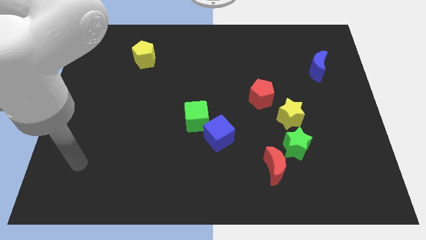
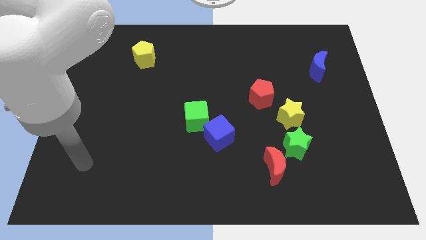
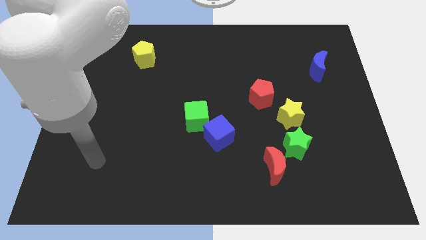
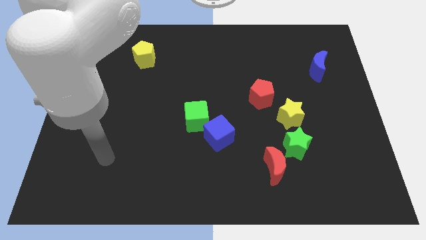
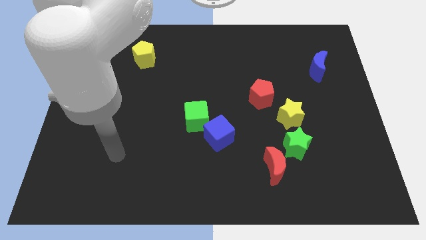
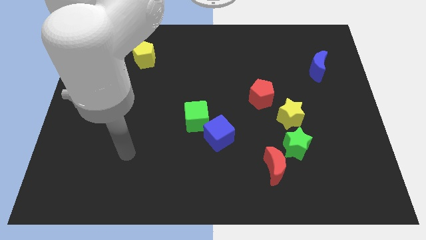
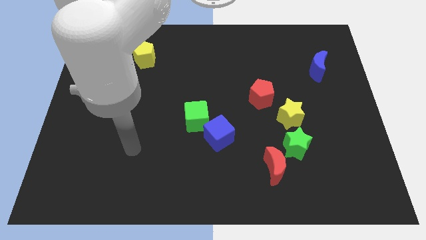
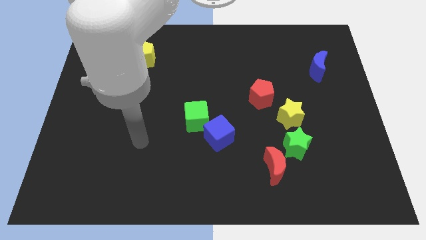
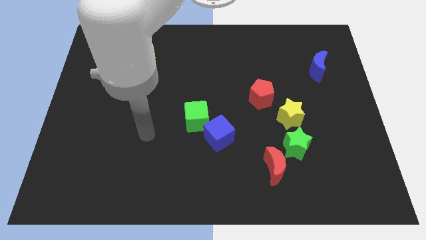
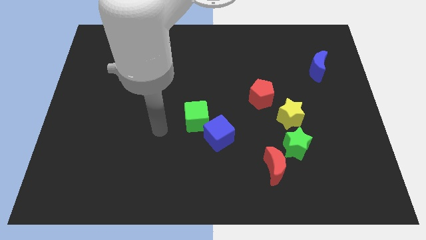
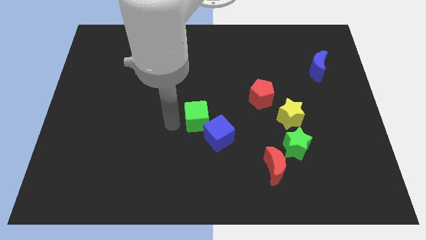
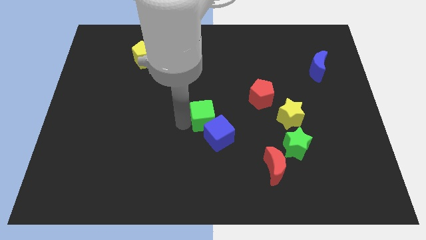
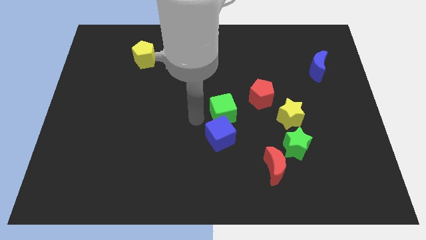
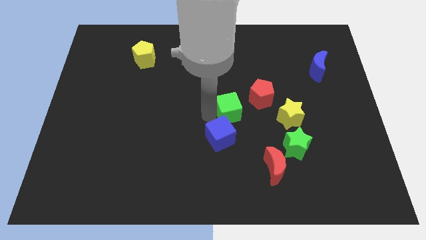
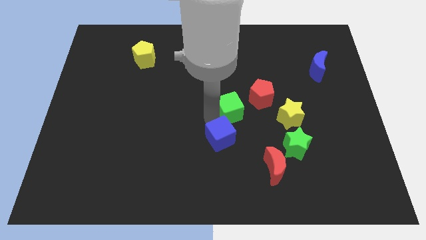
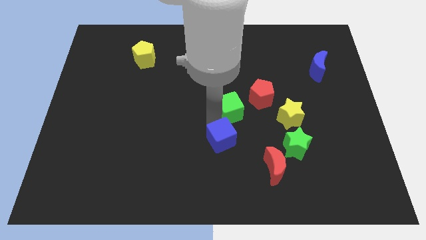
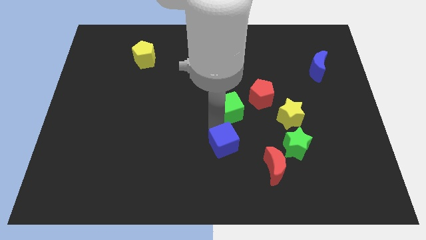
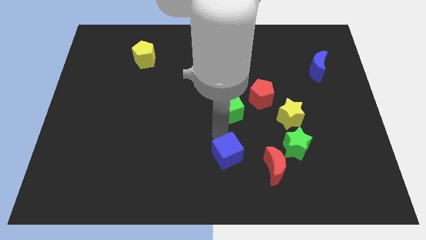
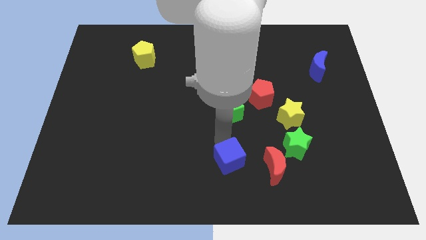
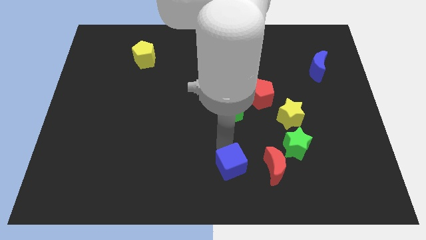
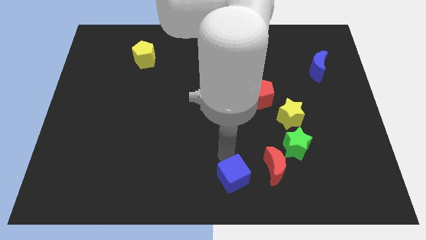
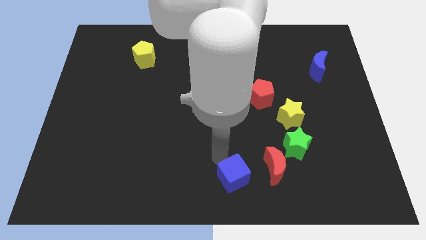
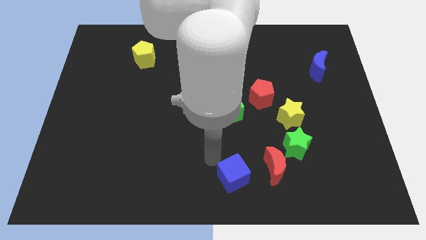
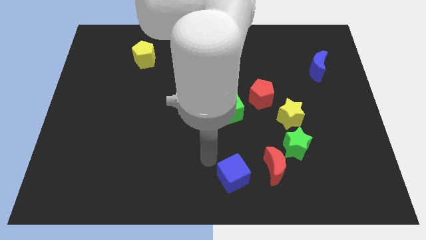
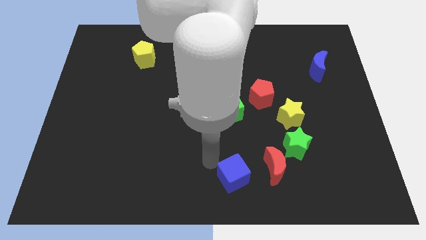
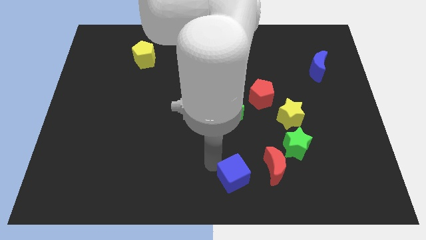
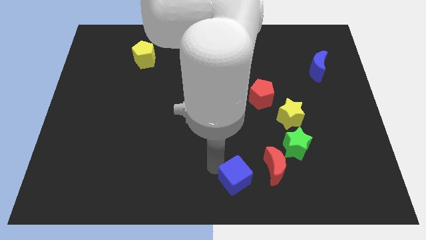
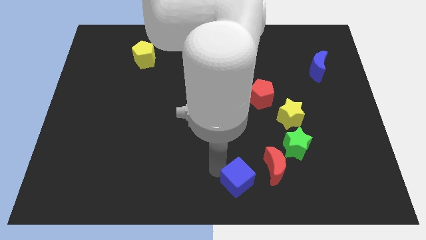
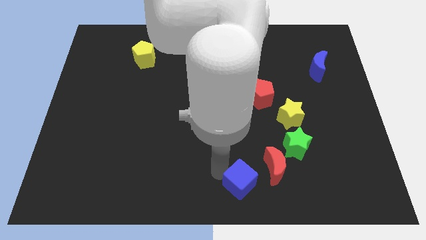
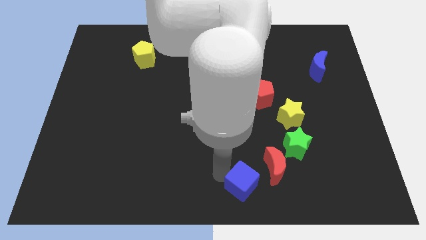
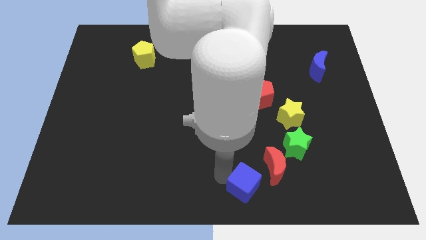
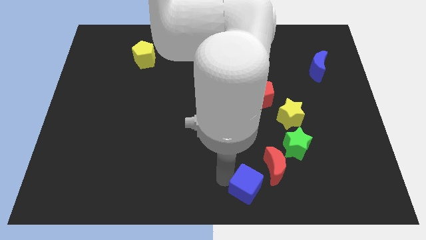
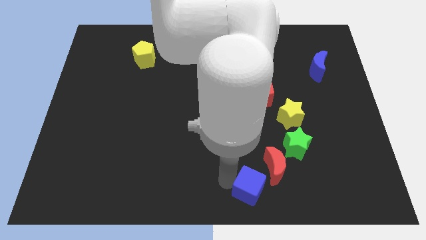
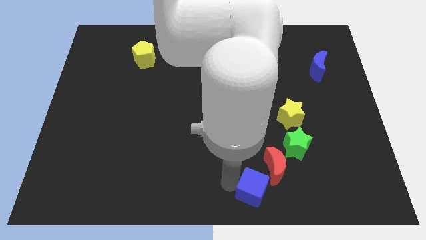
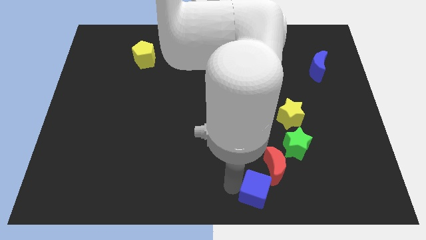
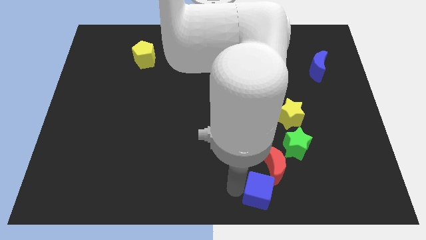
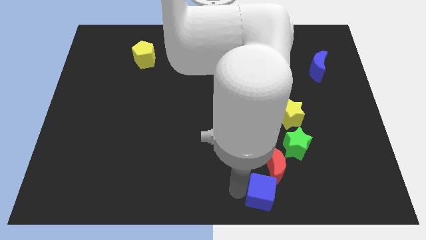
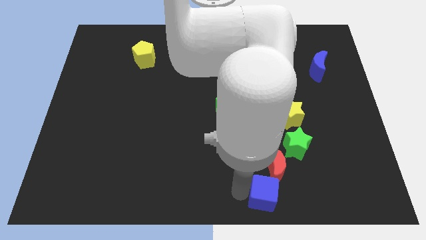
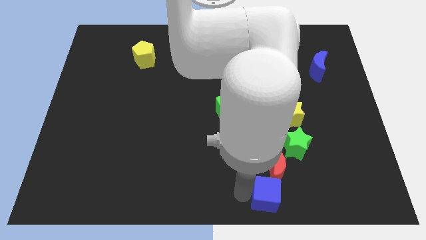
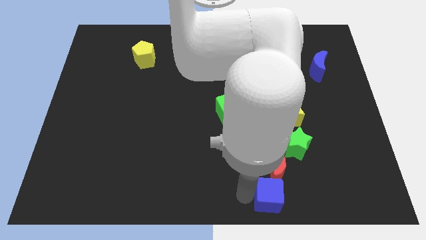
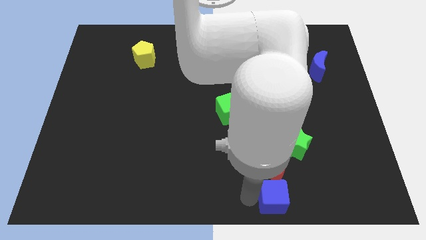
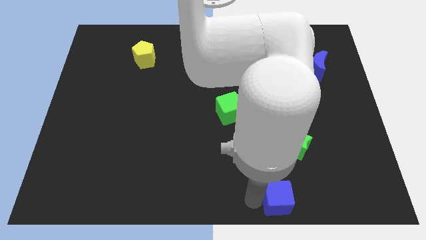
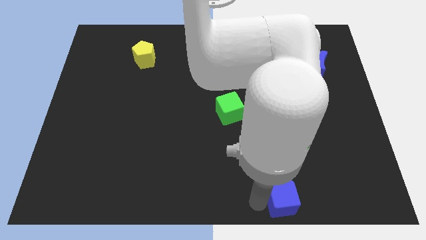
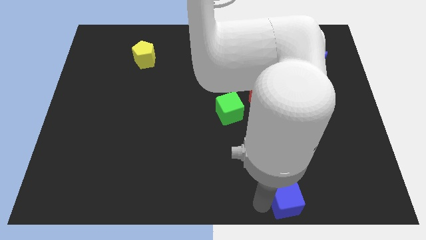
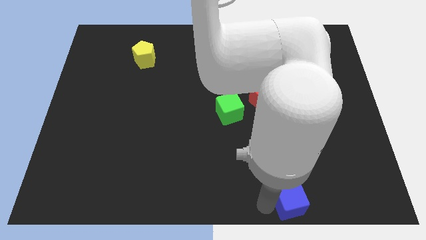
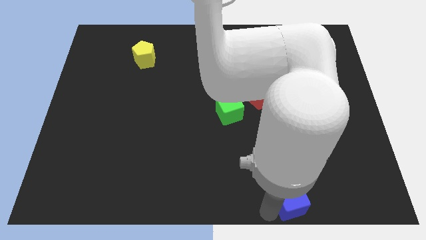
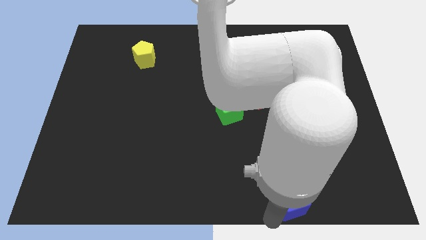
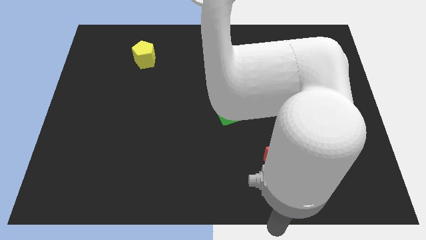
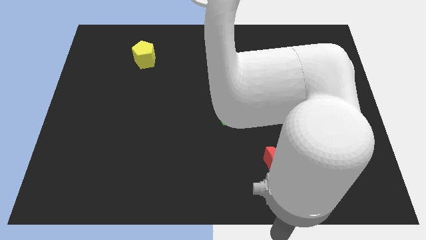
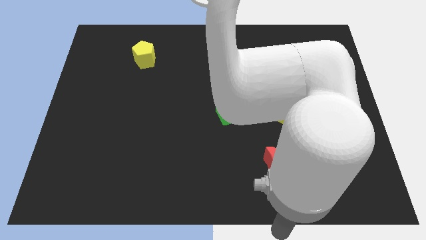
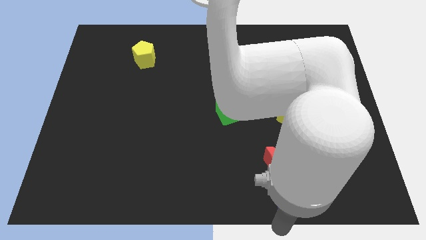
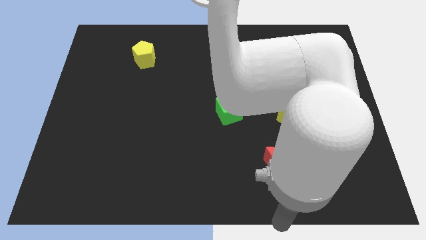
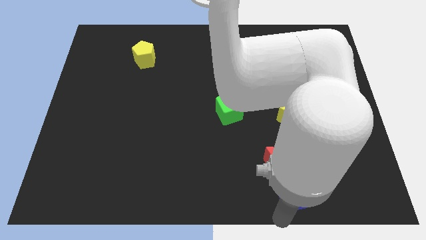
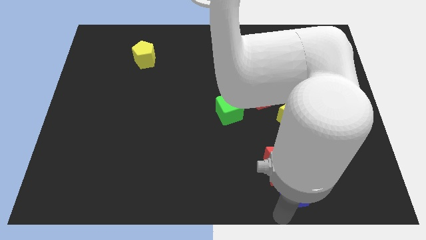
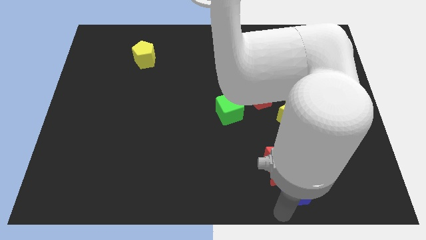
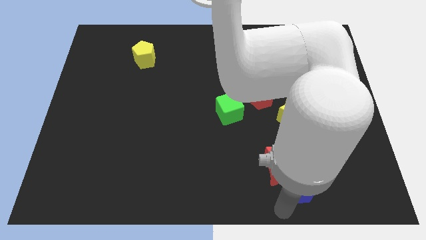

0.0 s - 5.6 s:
put the blue cube to the right side of the red moon

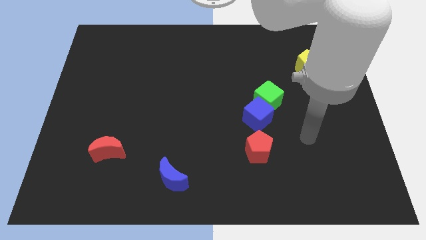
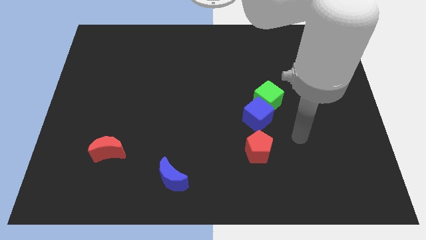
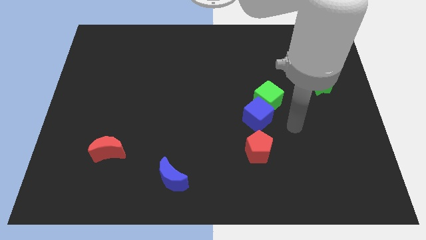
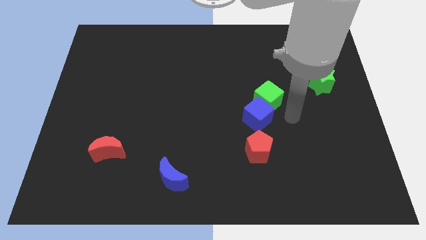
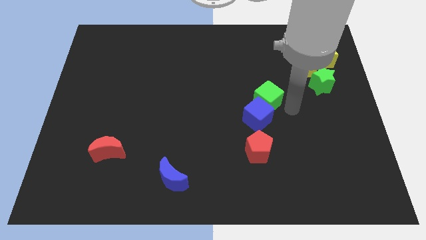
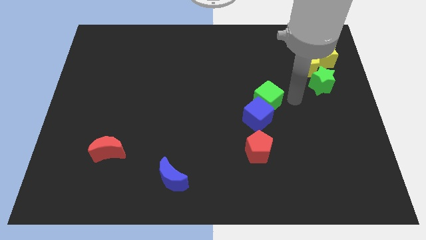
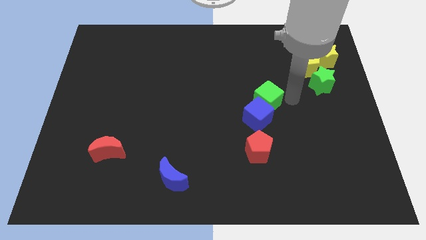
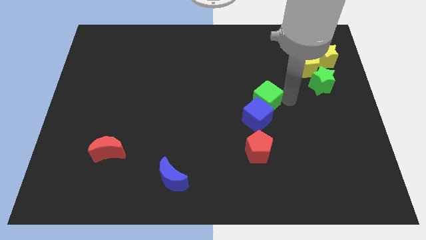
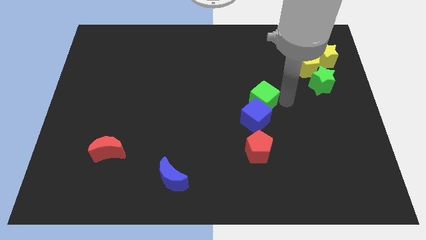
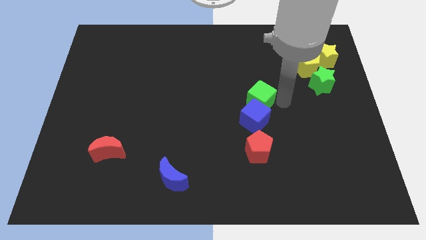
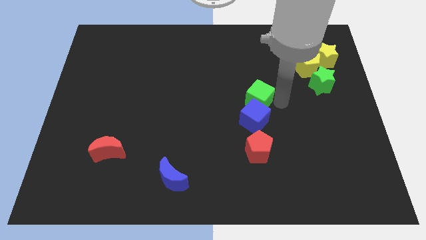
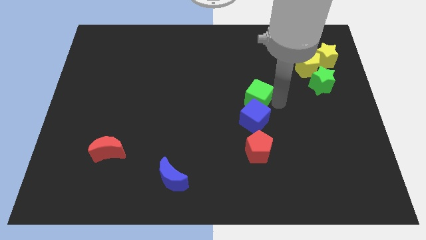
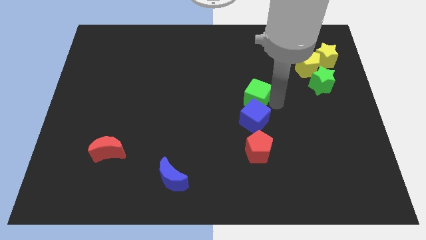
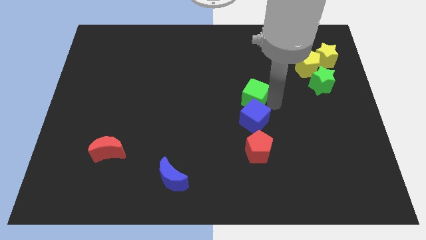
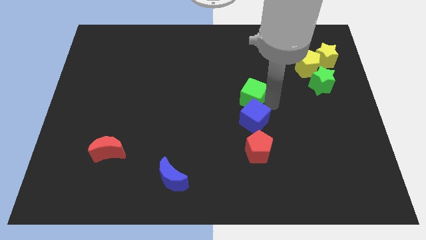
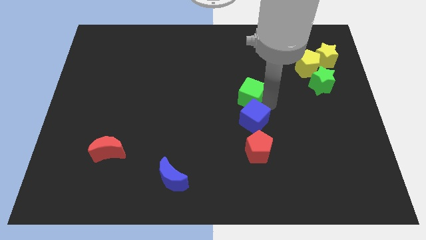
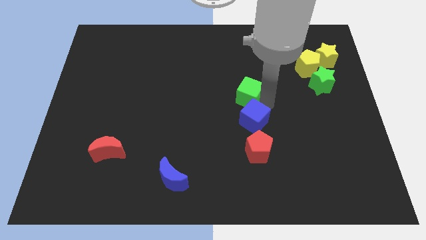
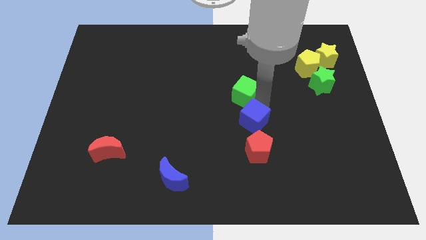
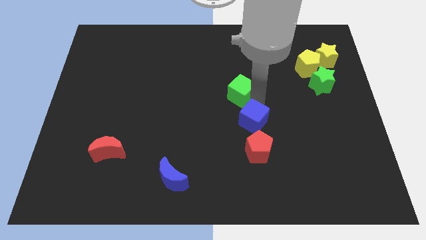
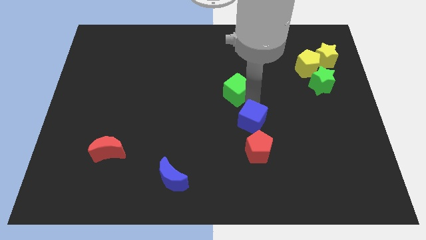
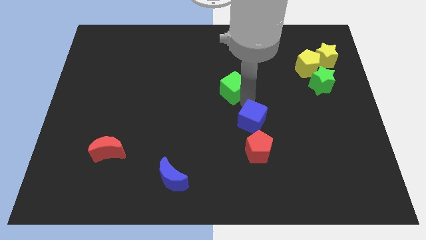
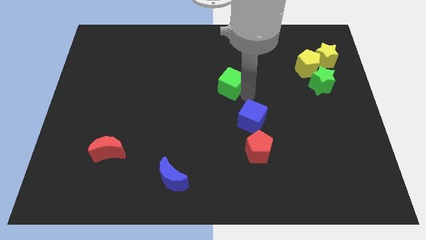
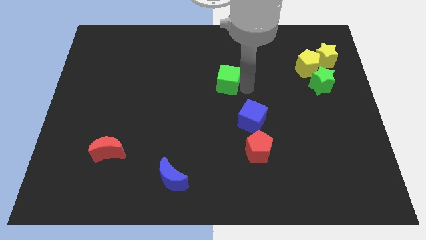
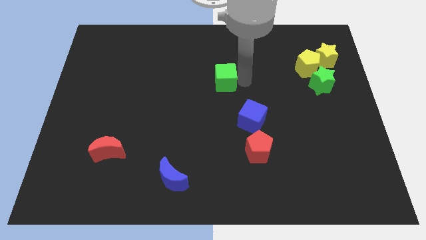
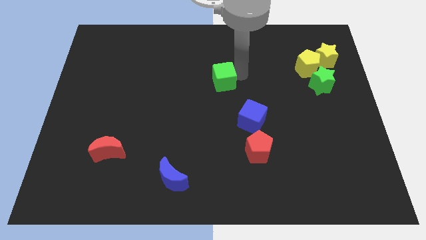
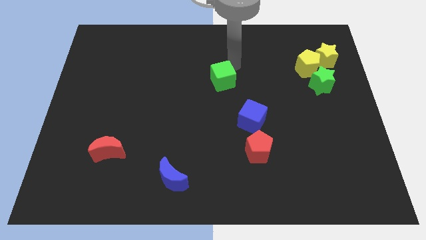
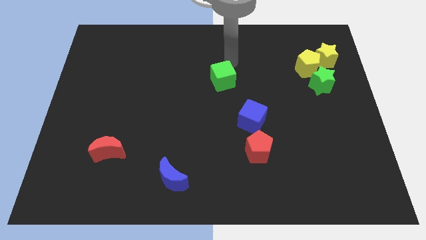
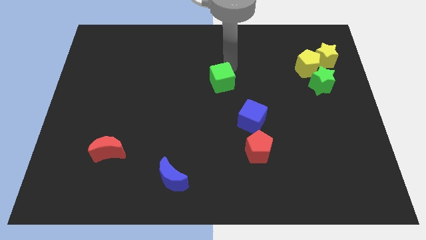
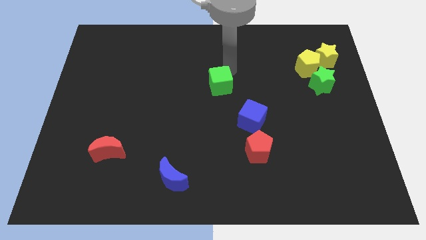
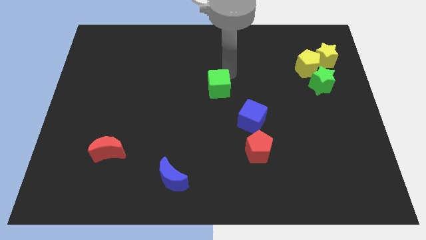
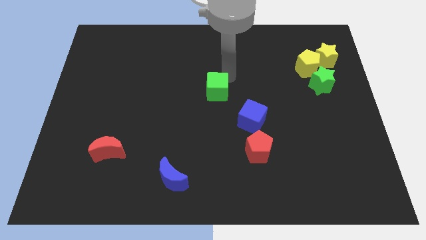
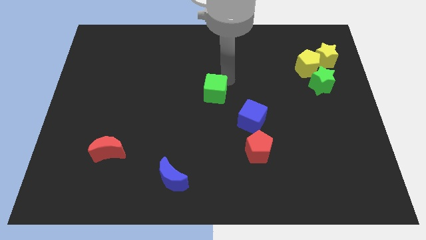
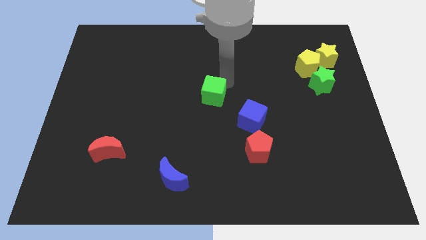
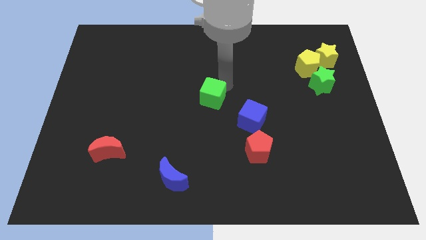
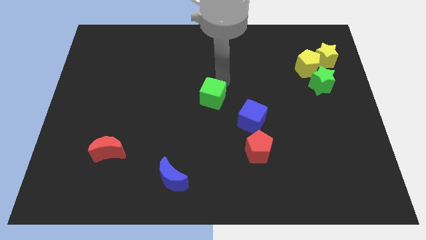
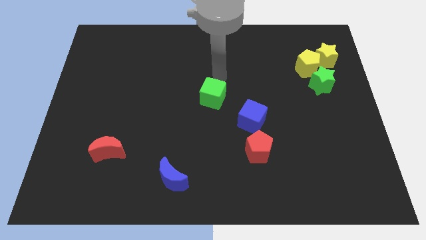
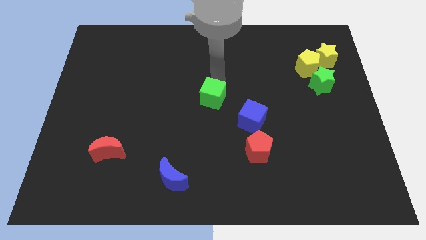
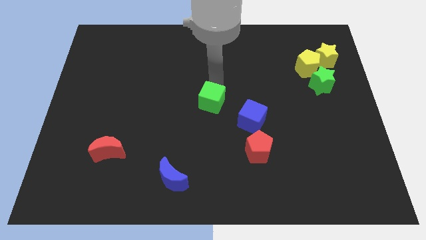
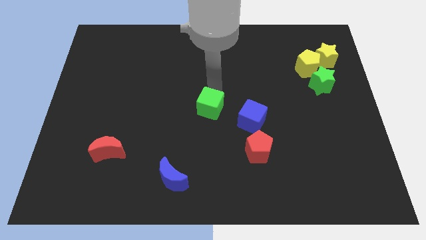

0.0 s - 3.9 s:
push the green cube to the left of the blue cube
